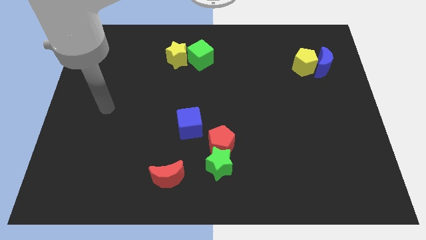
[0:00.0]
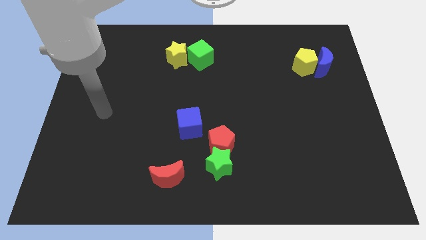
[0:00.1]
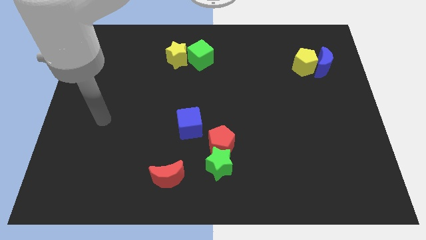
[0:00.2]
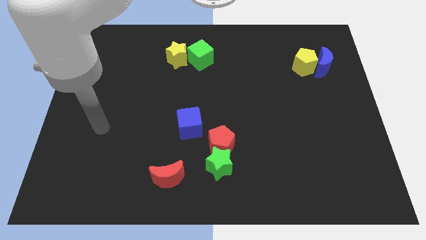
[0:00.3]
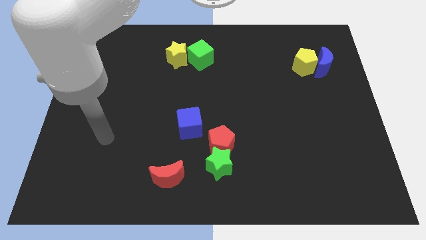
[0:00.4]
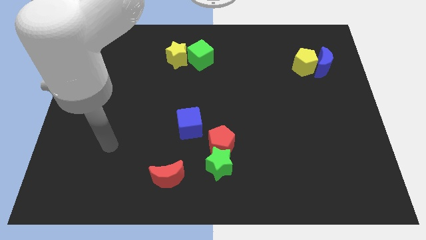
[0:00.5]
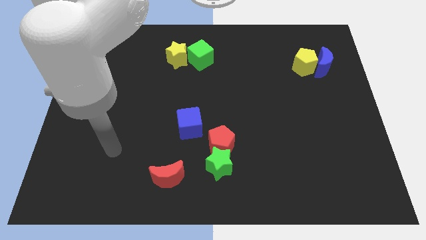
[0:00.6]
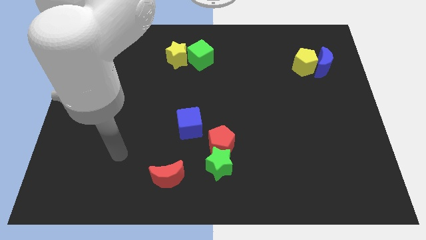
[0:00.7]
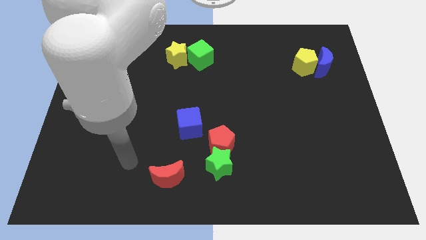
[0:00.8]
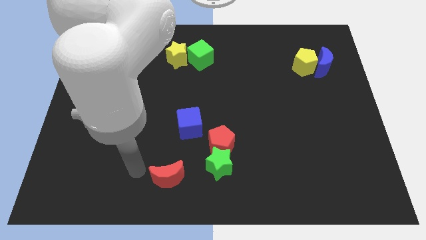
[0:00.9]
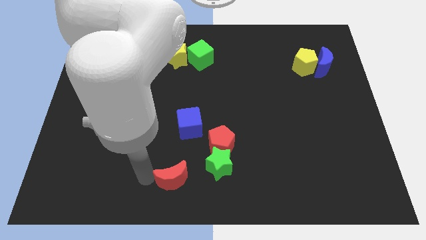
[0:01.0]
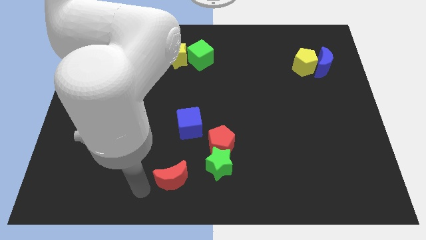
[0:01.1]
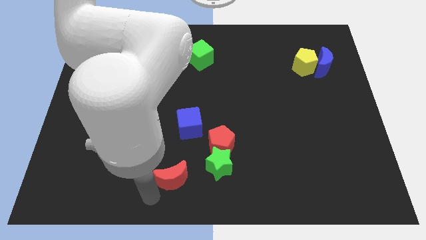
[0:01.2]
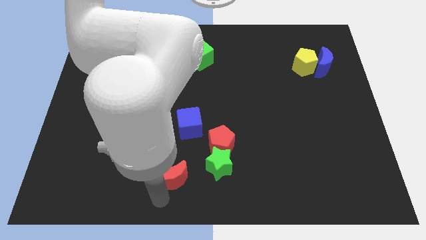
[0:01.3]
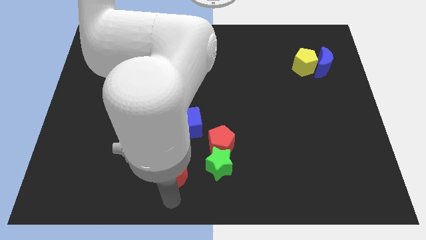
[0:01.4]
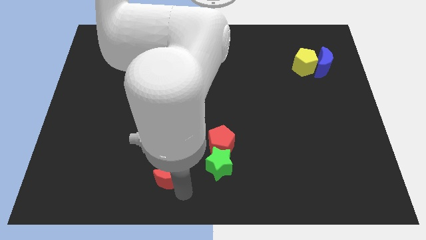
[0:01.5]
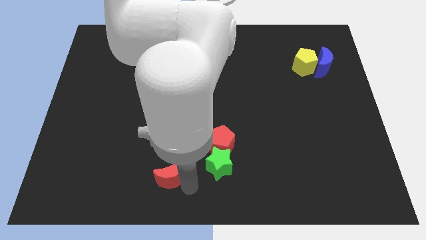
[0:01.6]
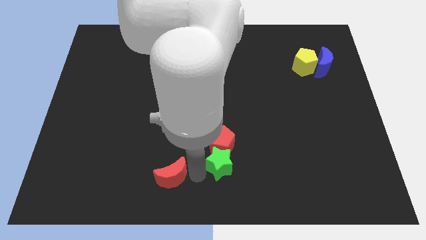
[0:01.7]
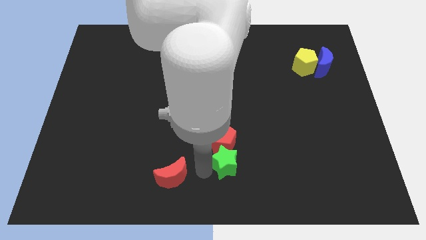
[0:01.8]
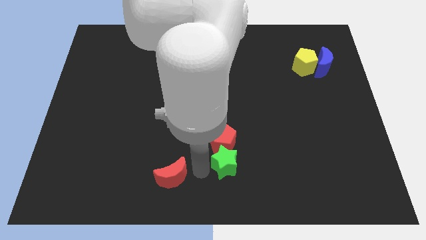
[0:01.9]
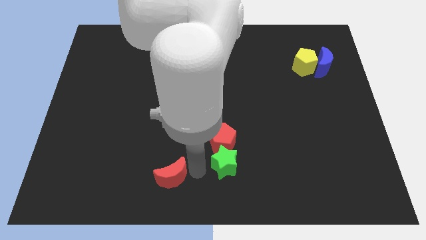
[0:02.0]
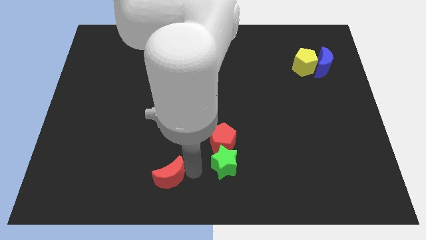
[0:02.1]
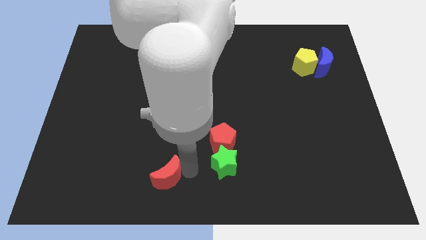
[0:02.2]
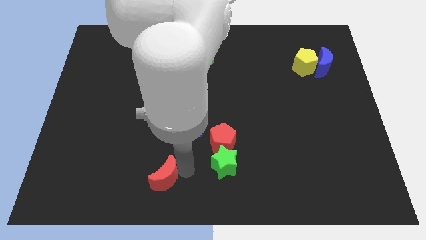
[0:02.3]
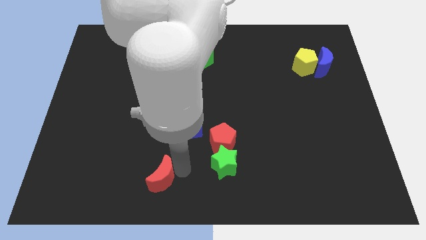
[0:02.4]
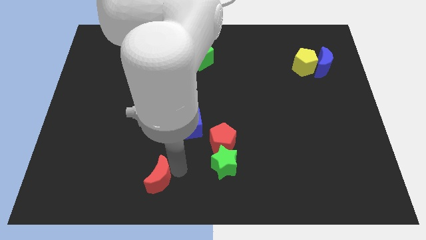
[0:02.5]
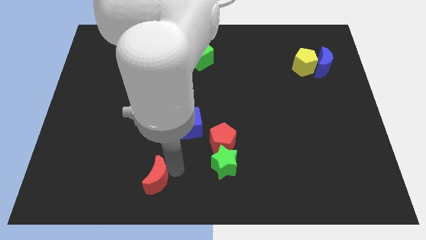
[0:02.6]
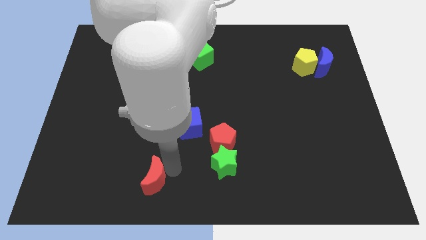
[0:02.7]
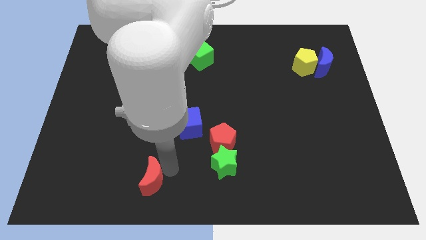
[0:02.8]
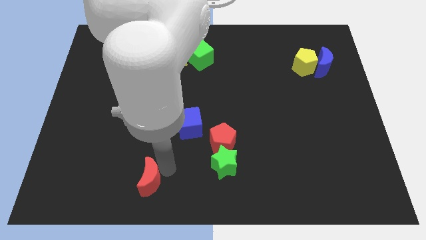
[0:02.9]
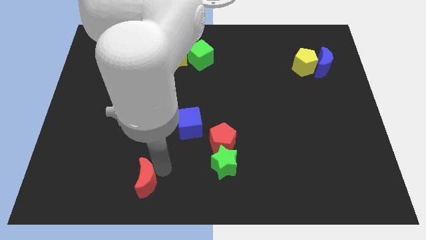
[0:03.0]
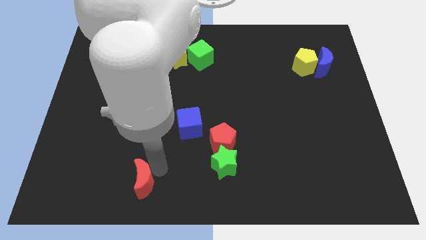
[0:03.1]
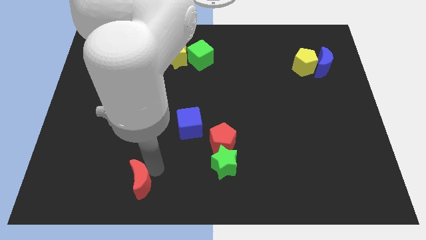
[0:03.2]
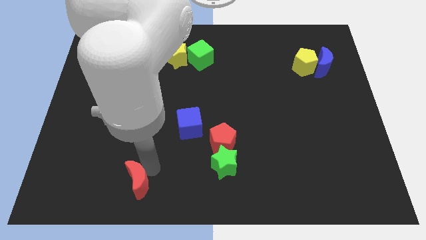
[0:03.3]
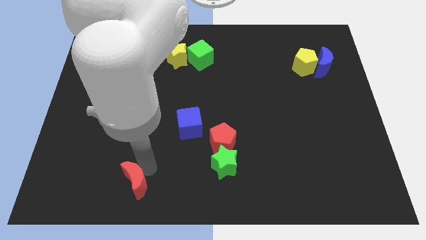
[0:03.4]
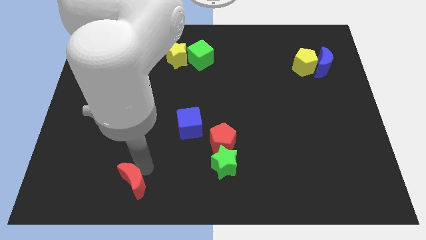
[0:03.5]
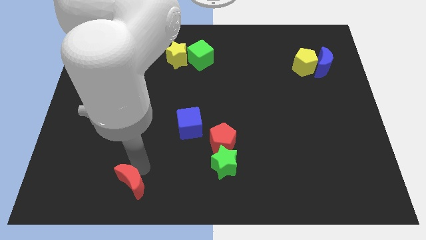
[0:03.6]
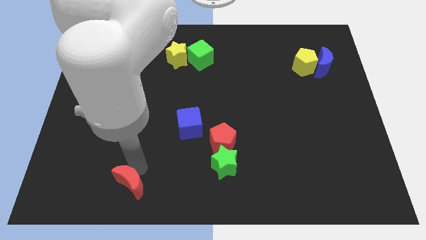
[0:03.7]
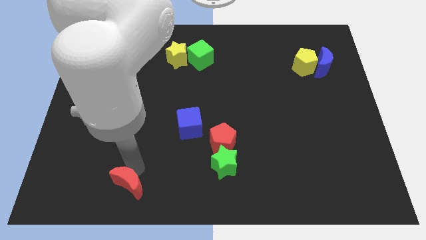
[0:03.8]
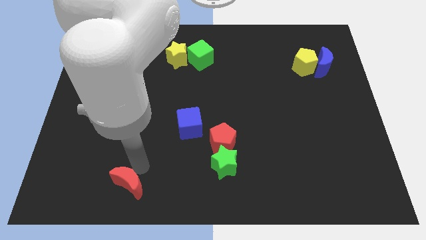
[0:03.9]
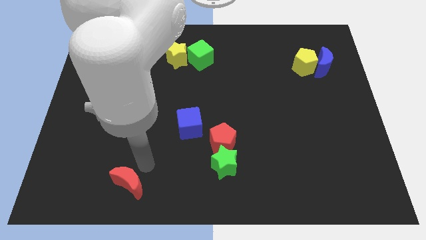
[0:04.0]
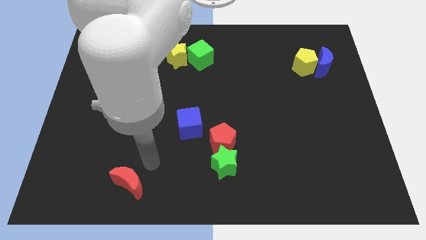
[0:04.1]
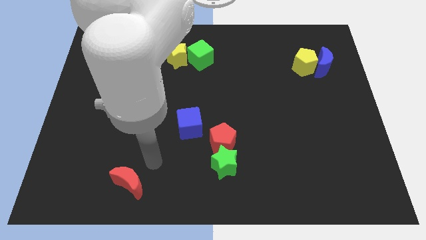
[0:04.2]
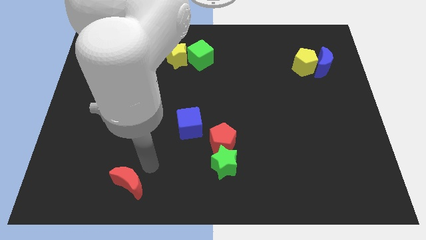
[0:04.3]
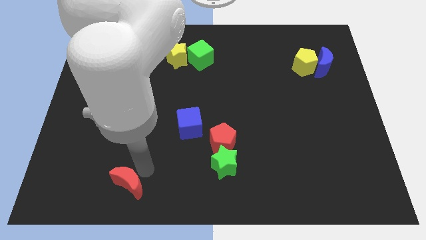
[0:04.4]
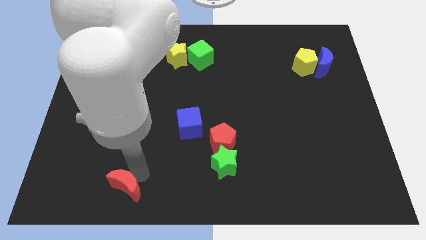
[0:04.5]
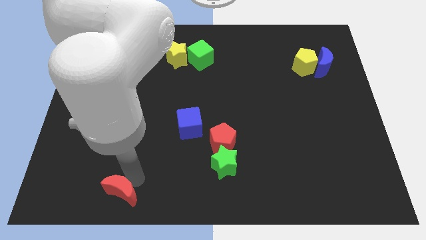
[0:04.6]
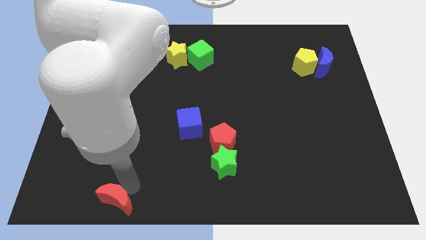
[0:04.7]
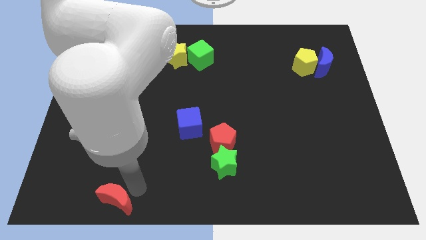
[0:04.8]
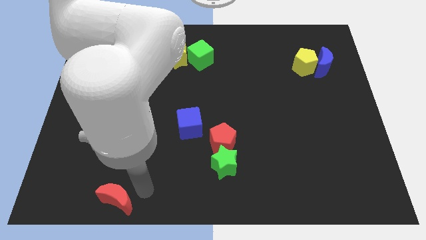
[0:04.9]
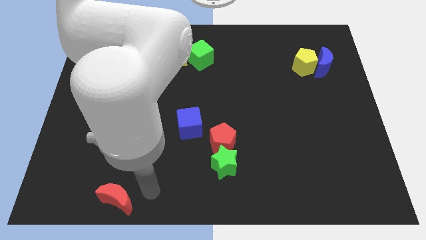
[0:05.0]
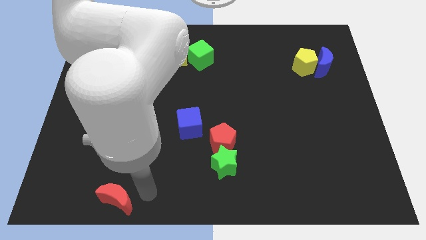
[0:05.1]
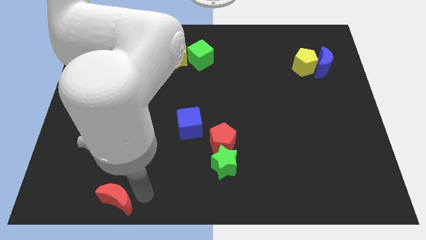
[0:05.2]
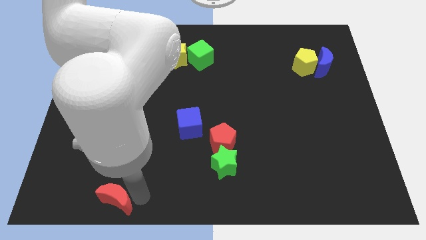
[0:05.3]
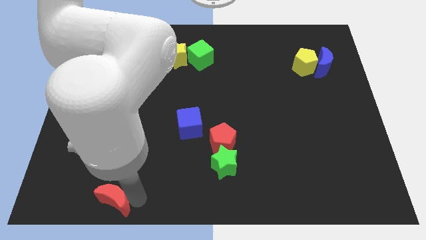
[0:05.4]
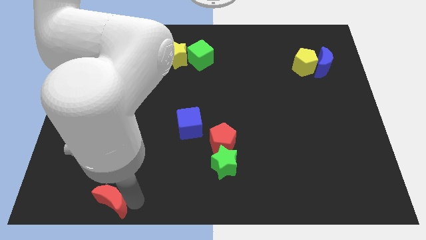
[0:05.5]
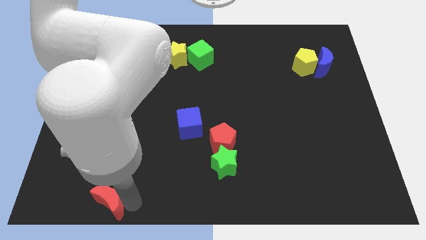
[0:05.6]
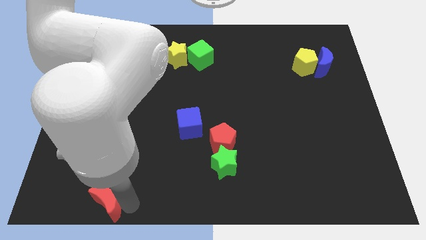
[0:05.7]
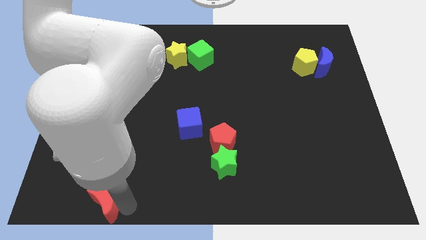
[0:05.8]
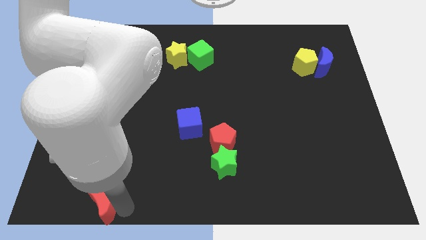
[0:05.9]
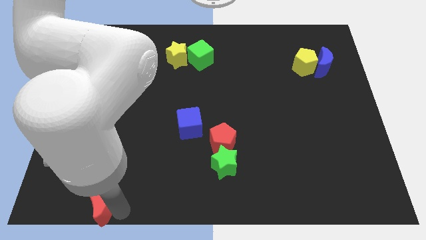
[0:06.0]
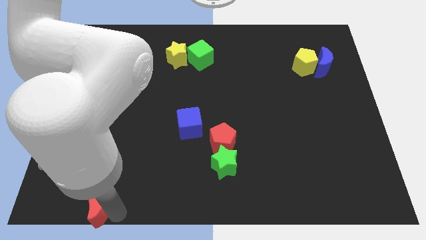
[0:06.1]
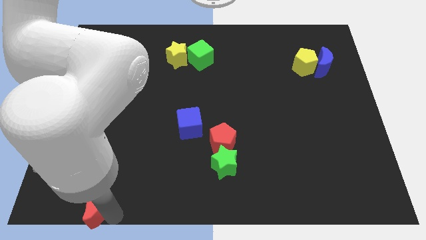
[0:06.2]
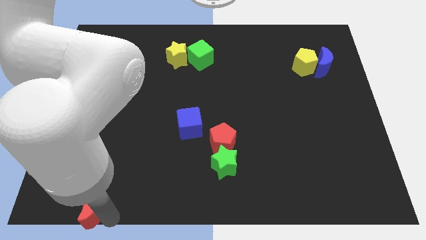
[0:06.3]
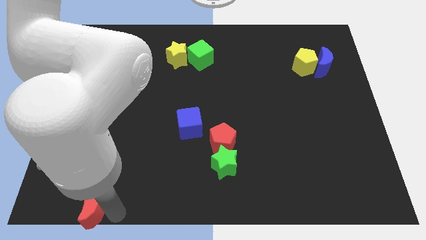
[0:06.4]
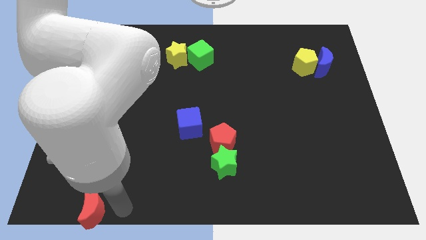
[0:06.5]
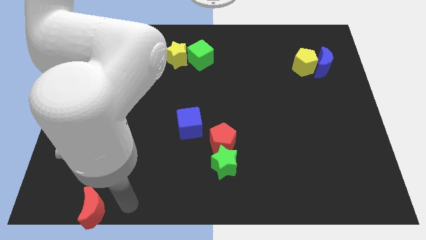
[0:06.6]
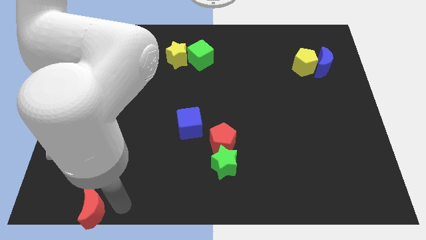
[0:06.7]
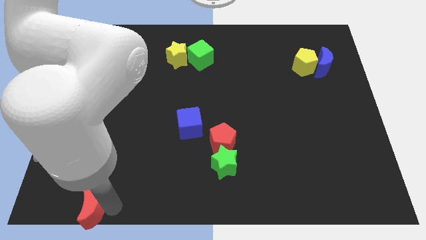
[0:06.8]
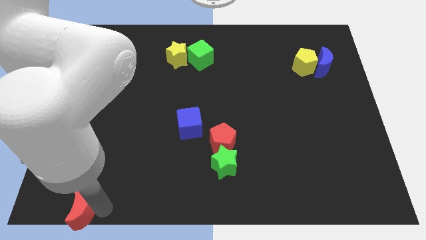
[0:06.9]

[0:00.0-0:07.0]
push the red moon to the bottom left of the board
